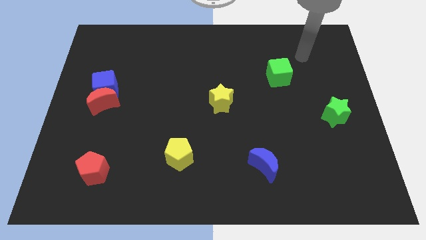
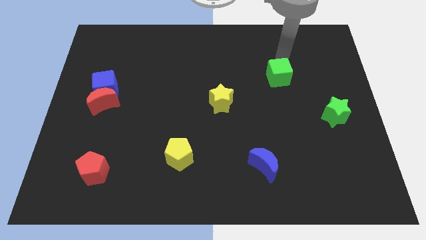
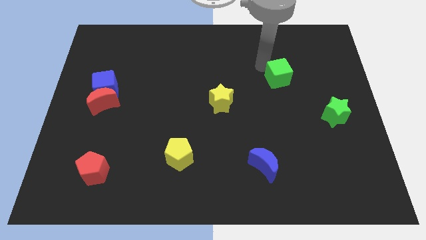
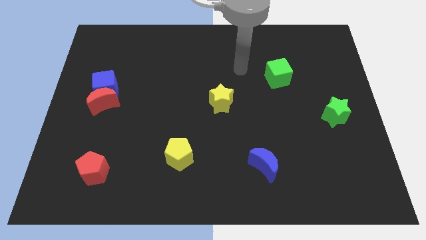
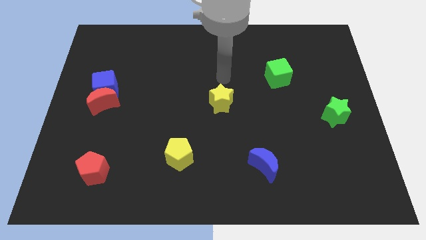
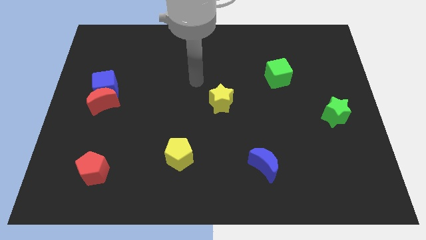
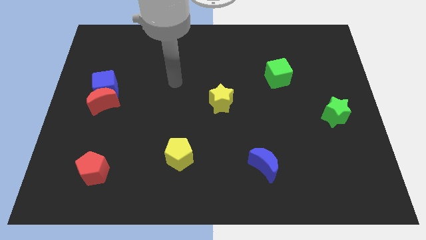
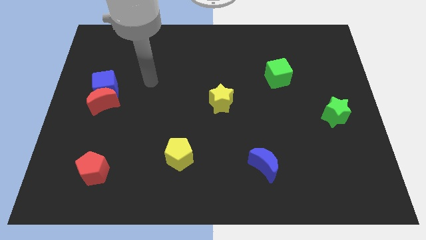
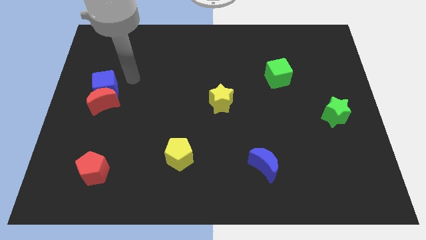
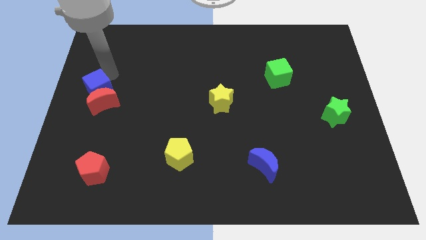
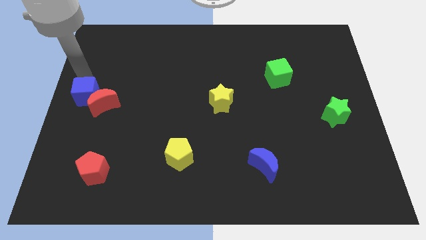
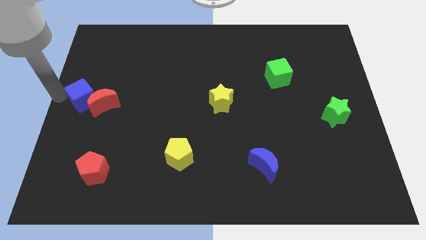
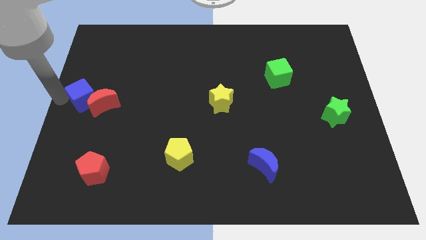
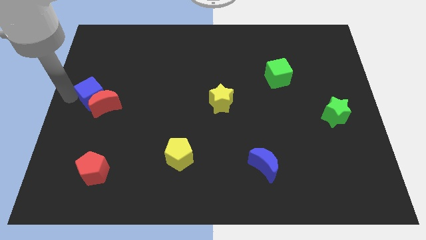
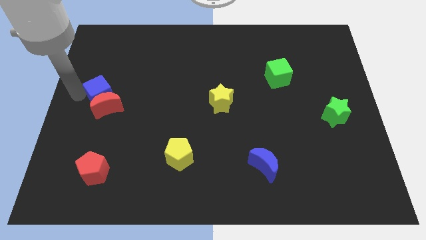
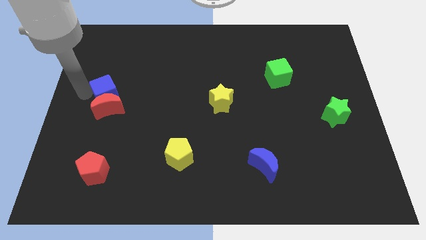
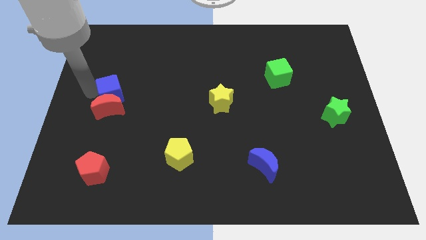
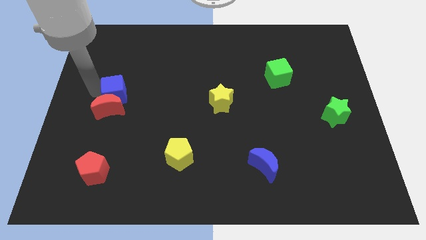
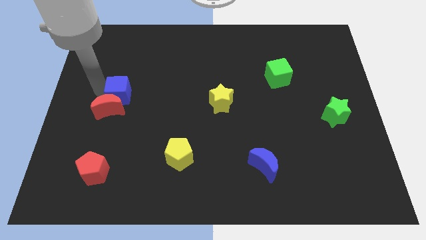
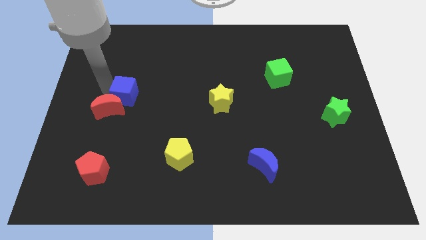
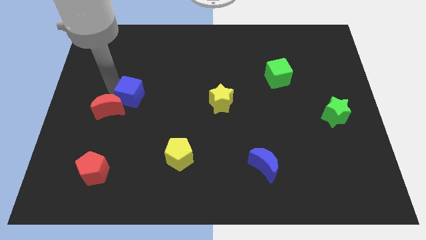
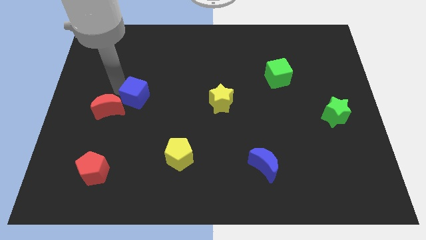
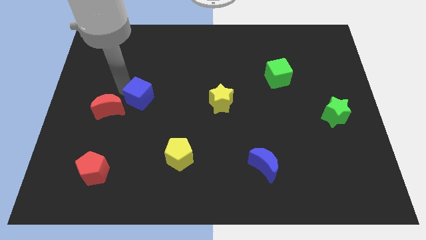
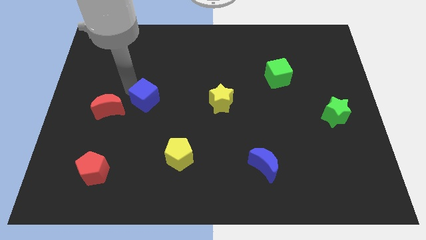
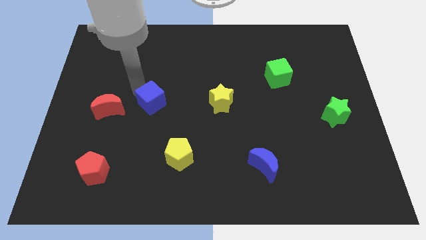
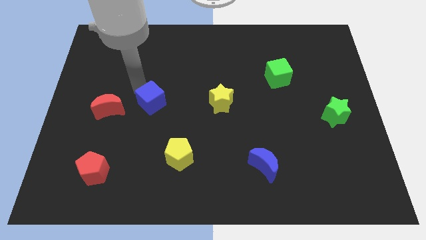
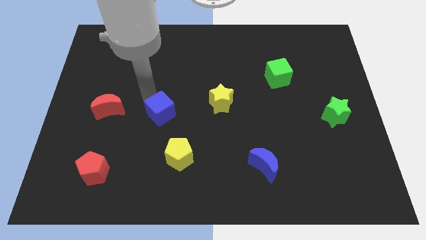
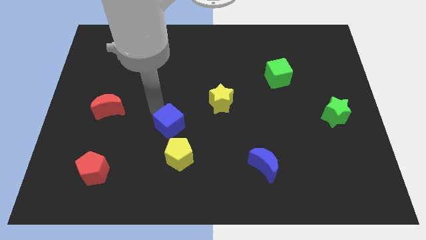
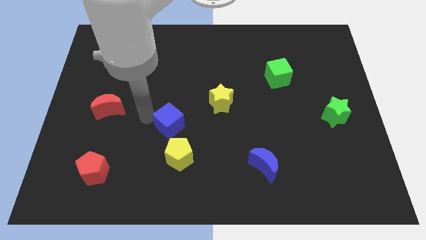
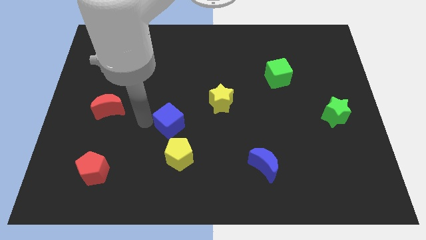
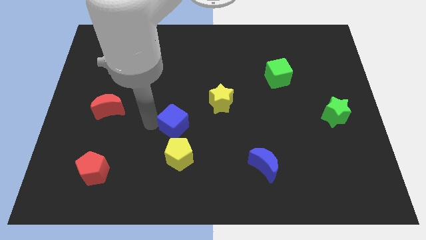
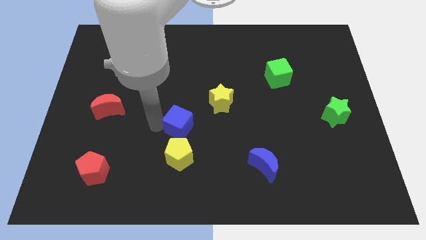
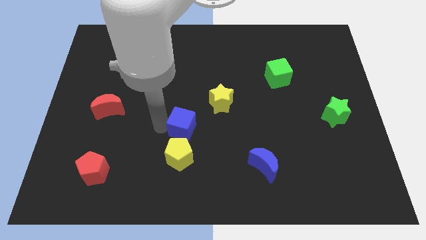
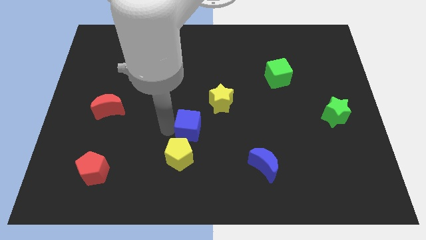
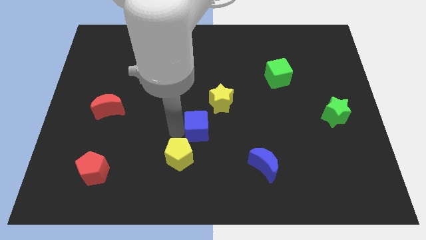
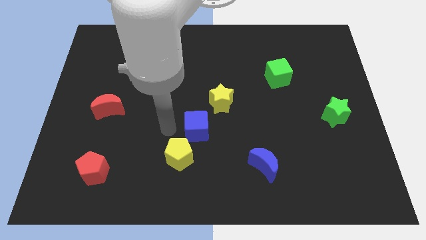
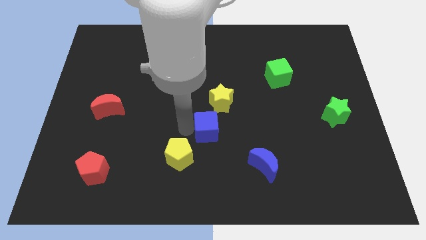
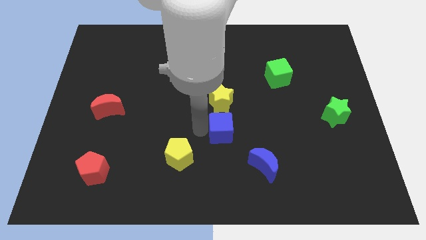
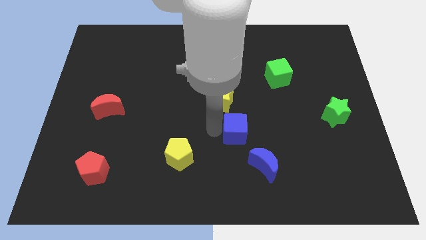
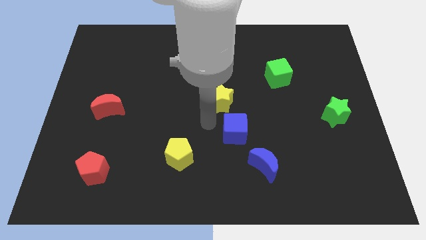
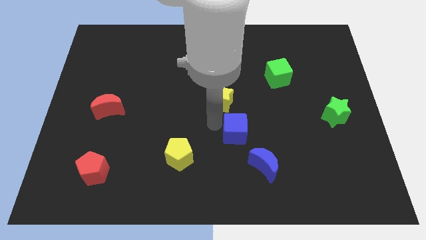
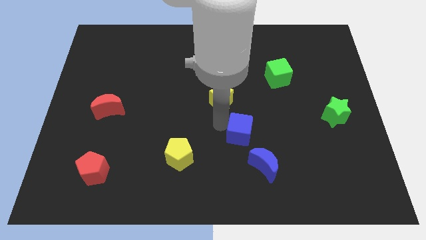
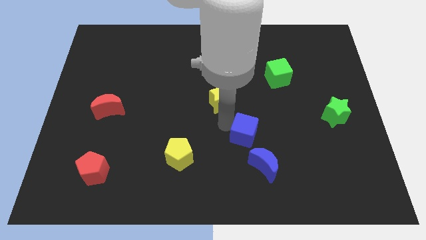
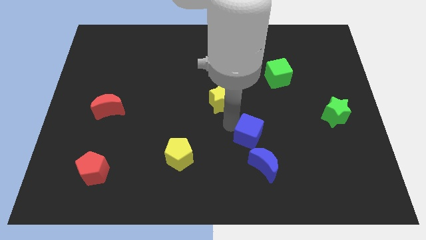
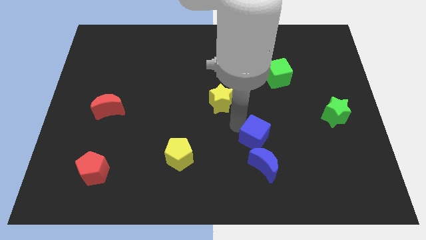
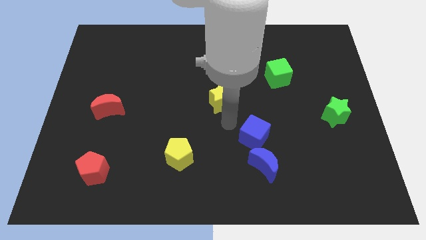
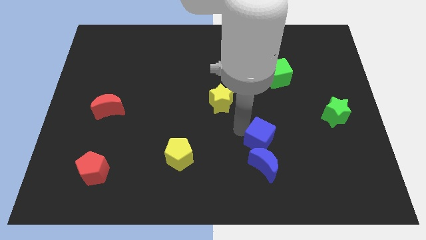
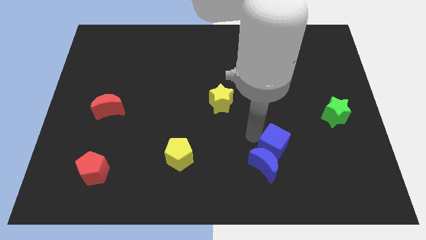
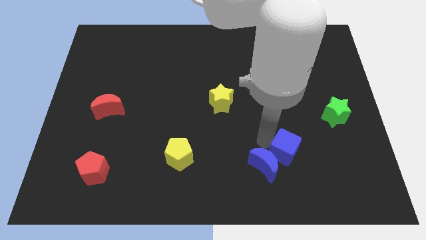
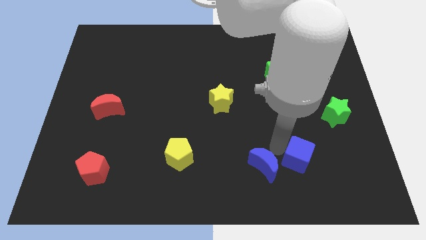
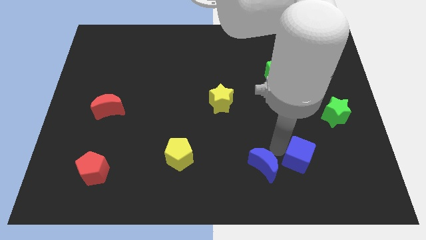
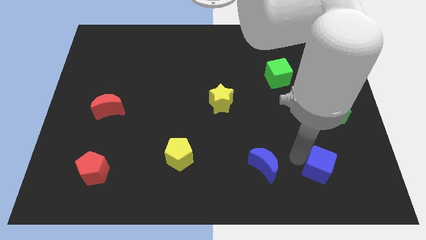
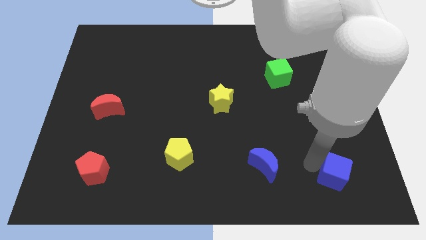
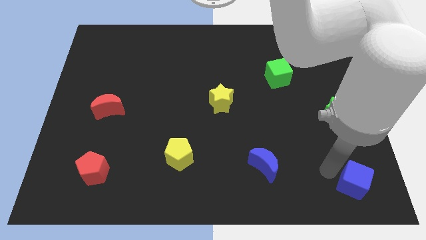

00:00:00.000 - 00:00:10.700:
slide the blue cube to the lower right corner
